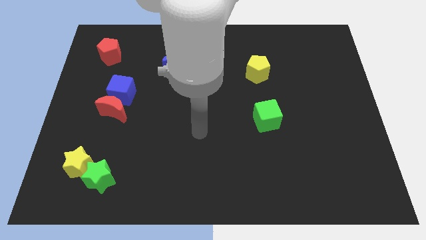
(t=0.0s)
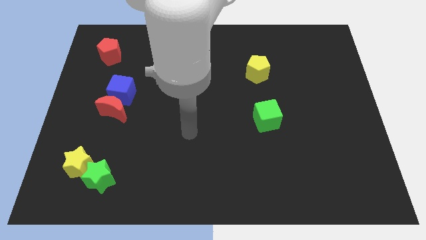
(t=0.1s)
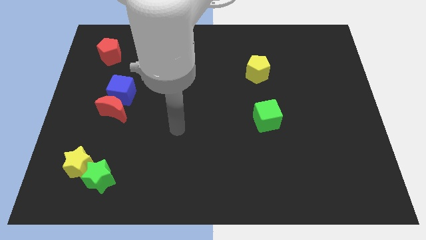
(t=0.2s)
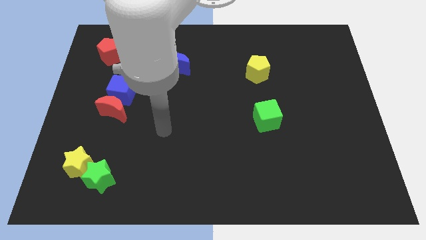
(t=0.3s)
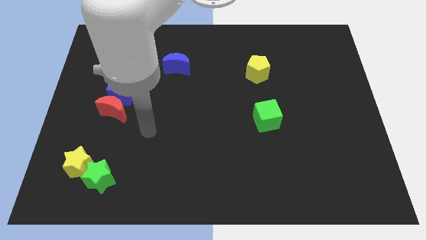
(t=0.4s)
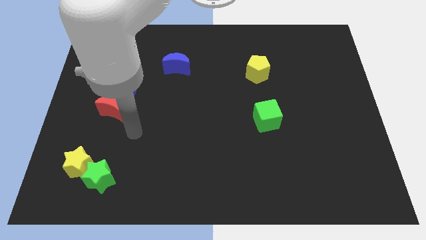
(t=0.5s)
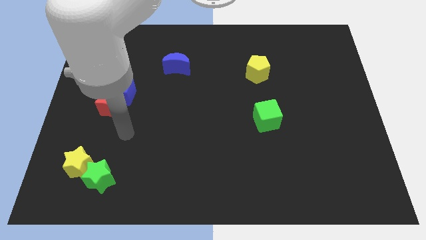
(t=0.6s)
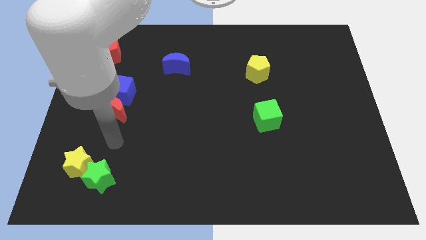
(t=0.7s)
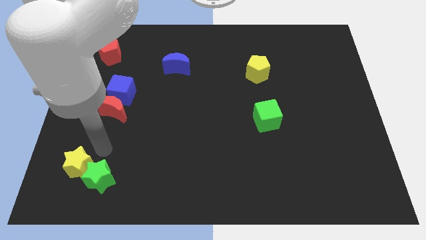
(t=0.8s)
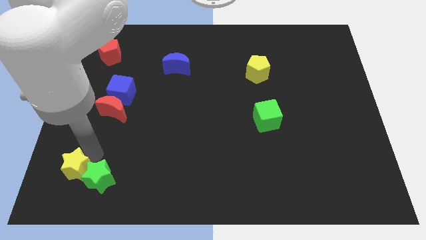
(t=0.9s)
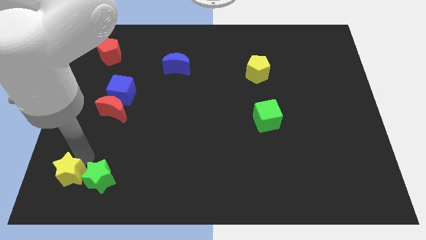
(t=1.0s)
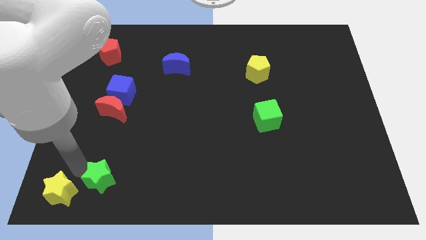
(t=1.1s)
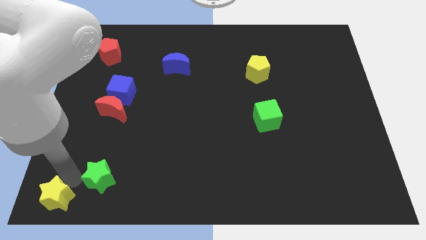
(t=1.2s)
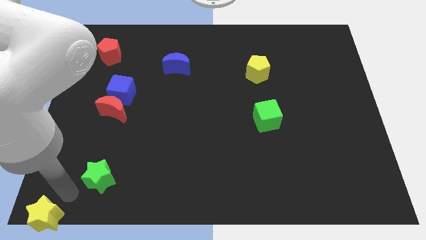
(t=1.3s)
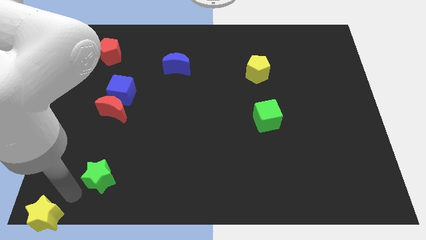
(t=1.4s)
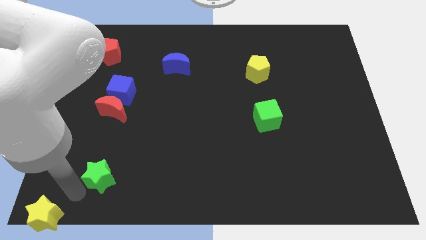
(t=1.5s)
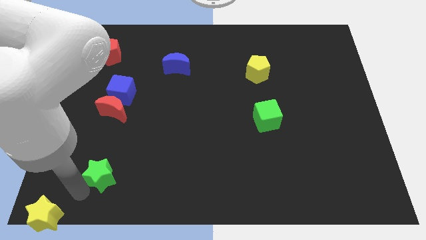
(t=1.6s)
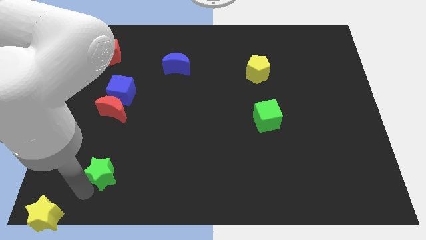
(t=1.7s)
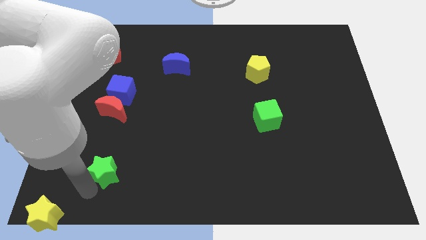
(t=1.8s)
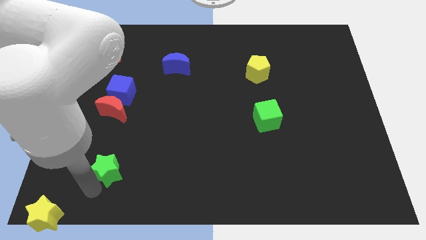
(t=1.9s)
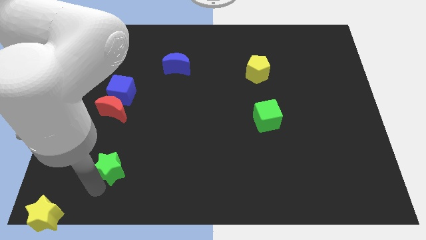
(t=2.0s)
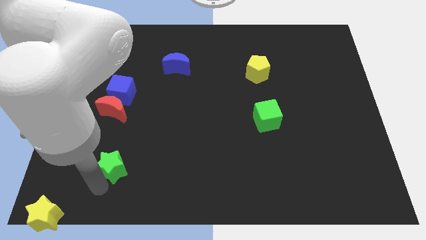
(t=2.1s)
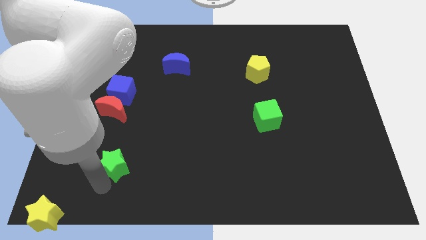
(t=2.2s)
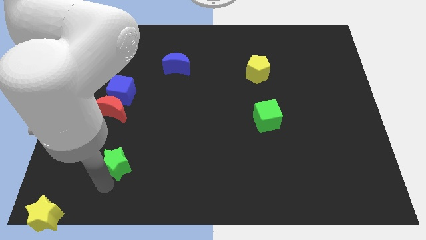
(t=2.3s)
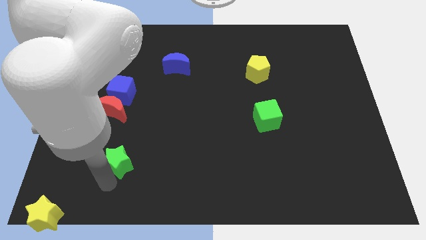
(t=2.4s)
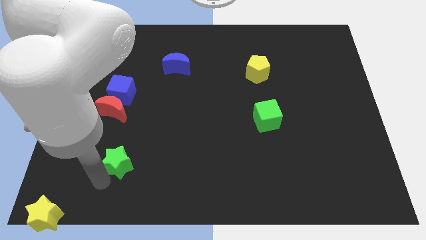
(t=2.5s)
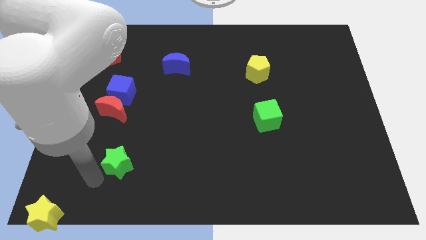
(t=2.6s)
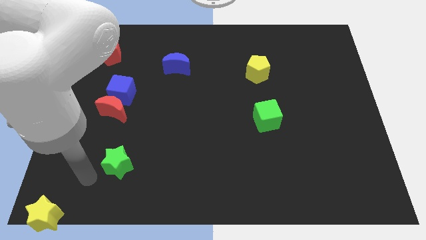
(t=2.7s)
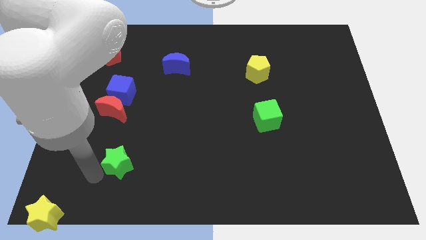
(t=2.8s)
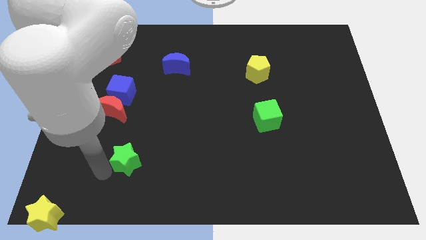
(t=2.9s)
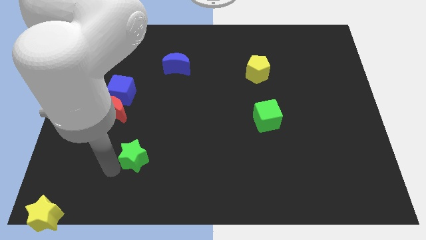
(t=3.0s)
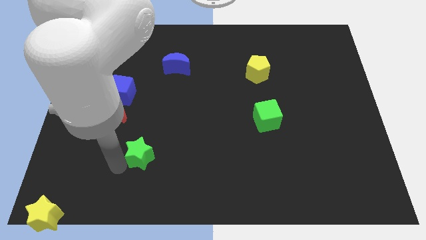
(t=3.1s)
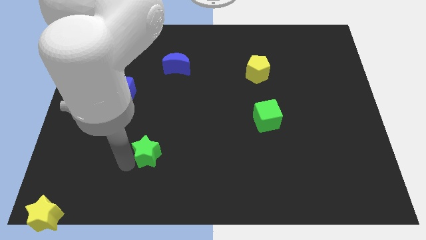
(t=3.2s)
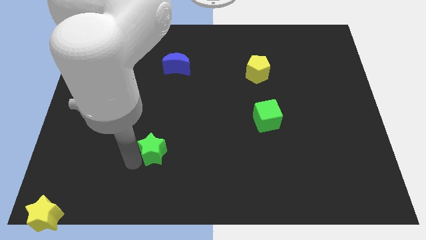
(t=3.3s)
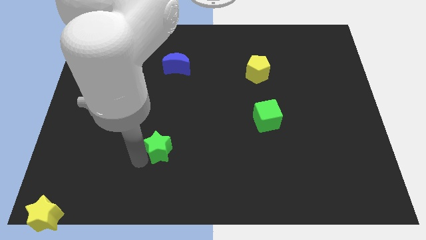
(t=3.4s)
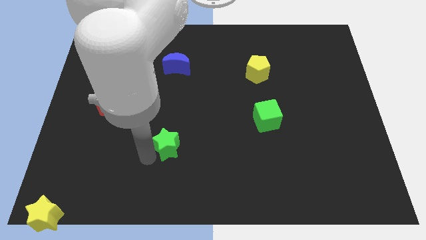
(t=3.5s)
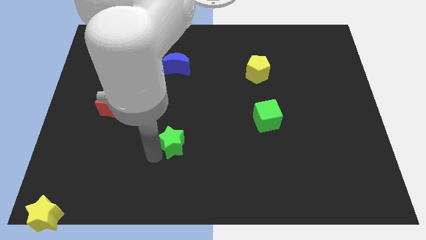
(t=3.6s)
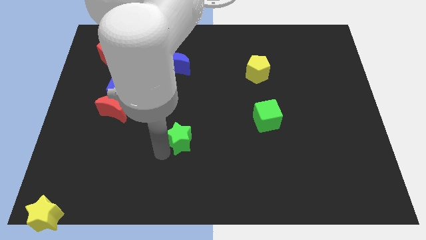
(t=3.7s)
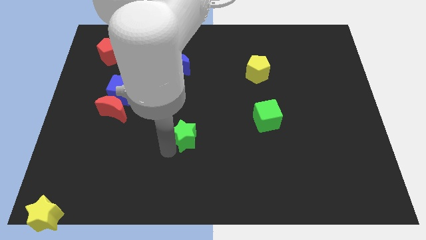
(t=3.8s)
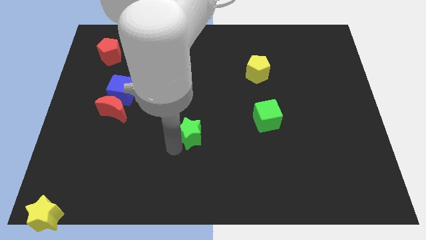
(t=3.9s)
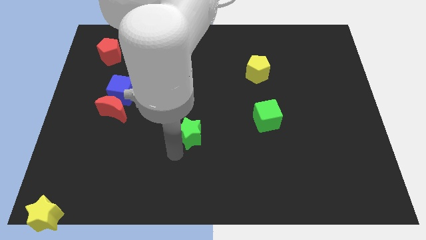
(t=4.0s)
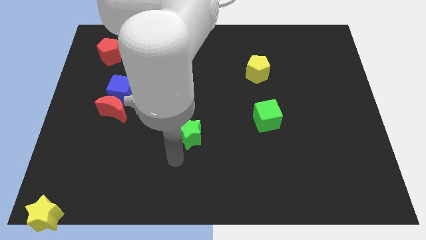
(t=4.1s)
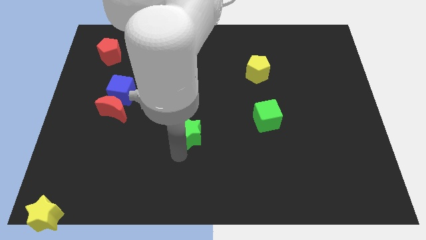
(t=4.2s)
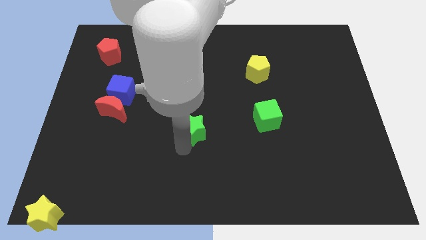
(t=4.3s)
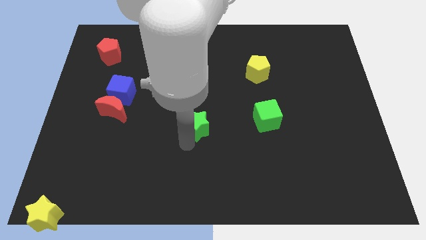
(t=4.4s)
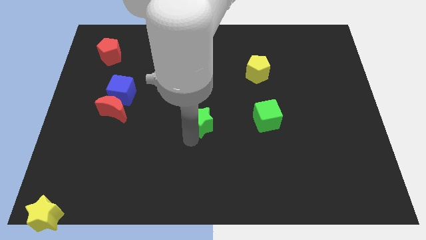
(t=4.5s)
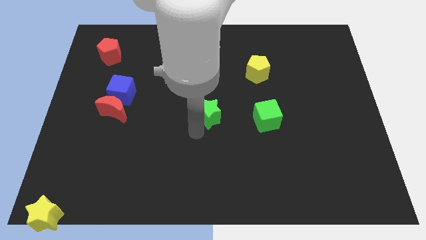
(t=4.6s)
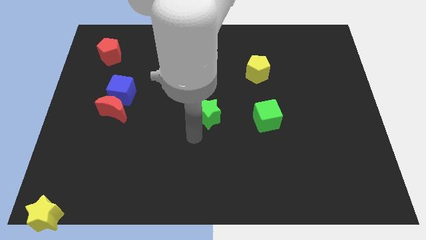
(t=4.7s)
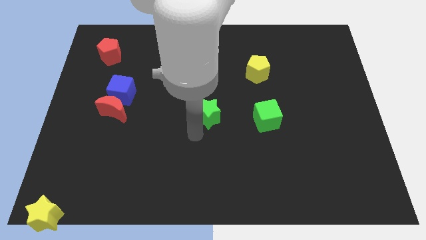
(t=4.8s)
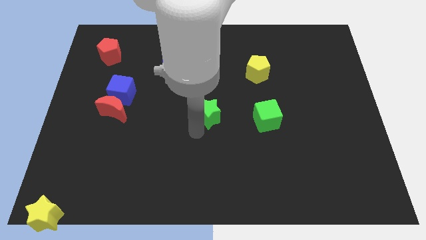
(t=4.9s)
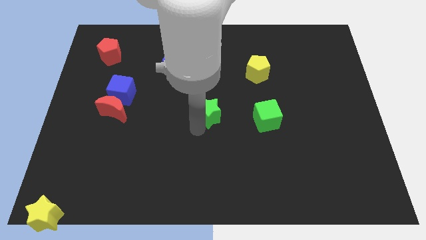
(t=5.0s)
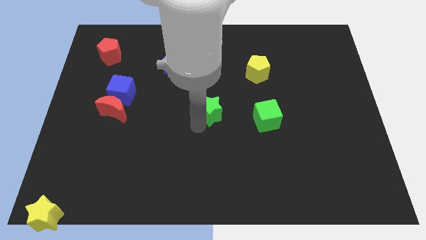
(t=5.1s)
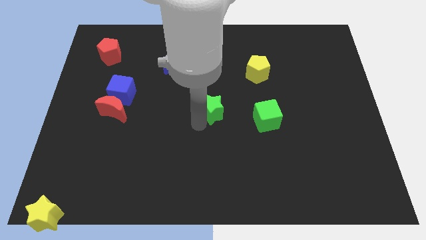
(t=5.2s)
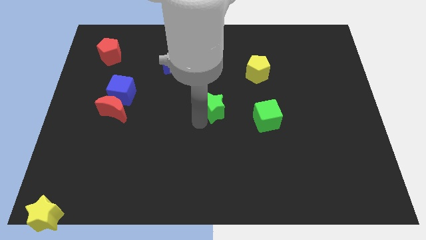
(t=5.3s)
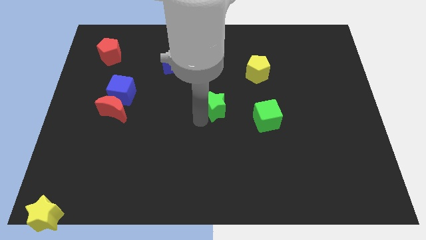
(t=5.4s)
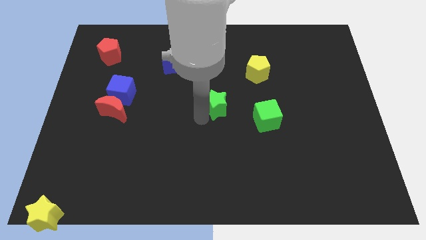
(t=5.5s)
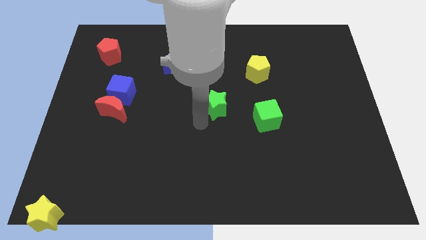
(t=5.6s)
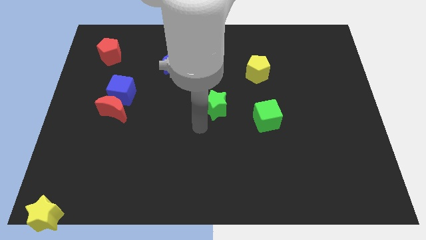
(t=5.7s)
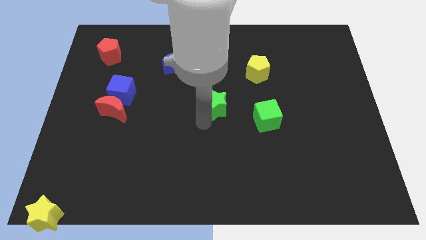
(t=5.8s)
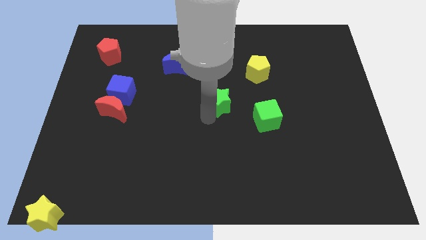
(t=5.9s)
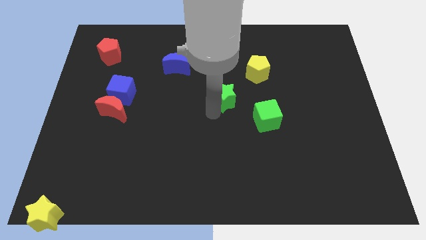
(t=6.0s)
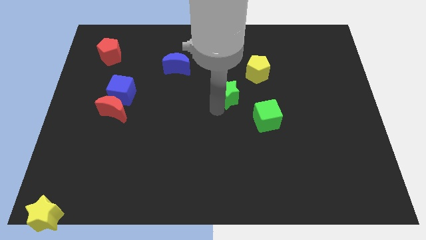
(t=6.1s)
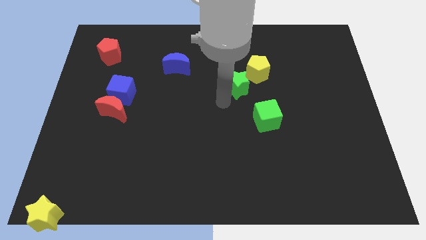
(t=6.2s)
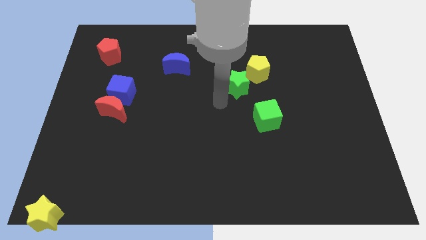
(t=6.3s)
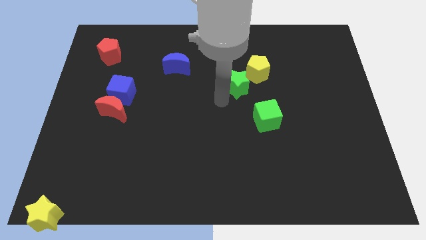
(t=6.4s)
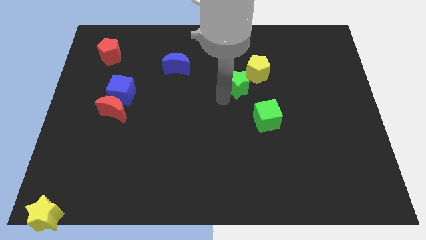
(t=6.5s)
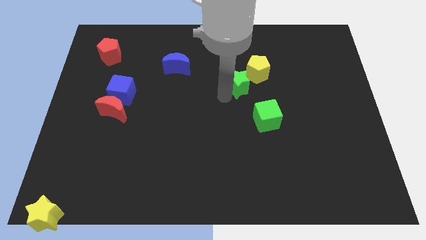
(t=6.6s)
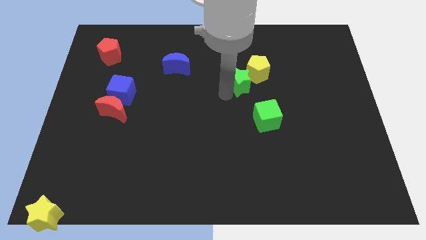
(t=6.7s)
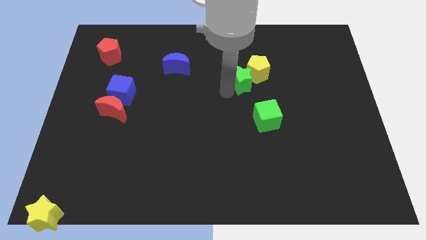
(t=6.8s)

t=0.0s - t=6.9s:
slide the green star towards the yellow pentagon

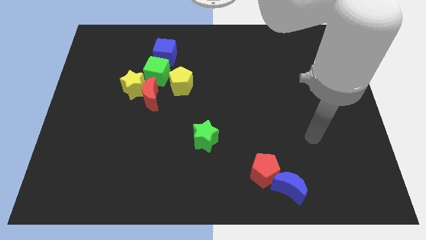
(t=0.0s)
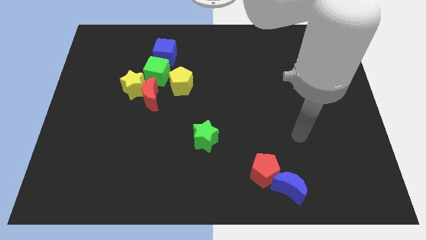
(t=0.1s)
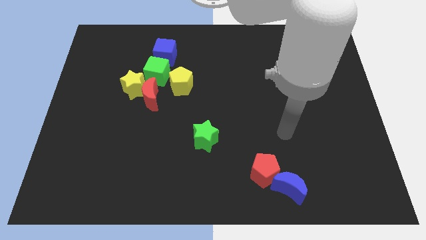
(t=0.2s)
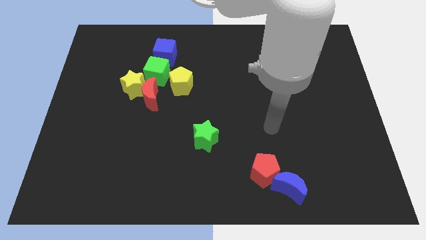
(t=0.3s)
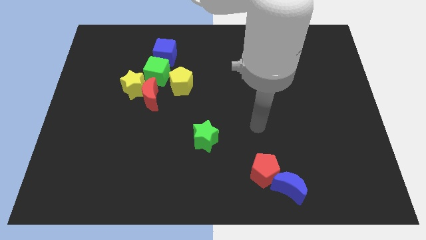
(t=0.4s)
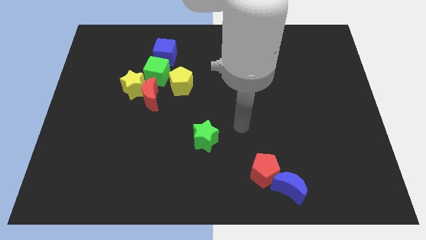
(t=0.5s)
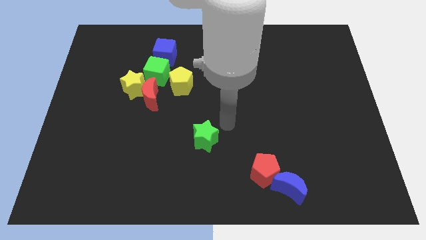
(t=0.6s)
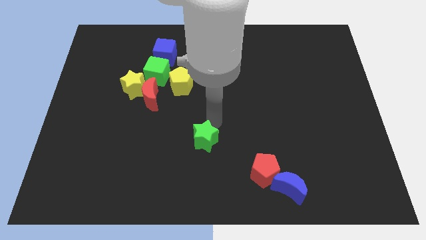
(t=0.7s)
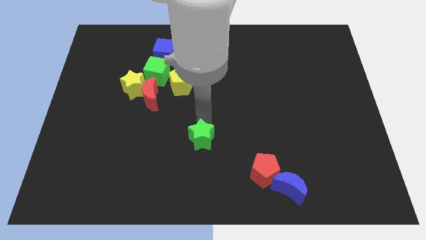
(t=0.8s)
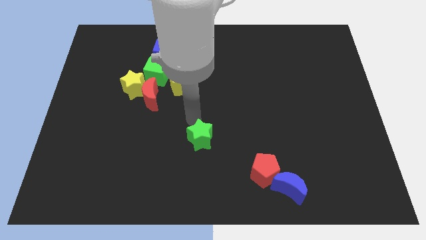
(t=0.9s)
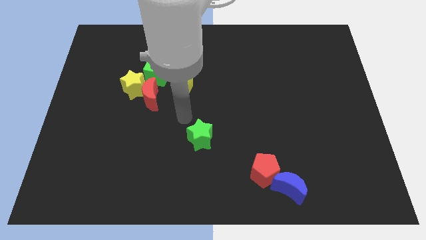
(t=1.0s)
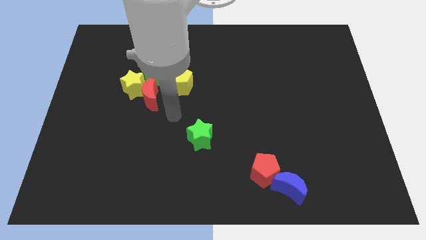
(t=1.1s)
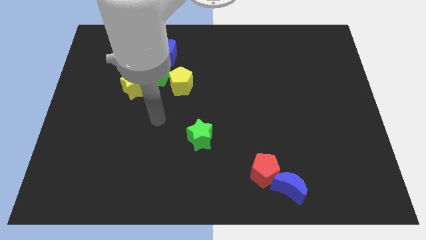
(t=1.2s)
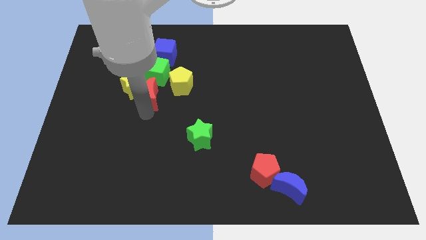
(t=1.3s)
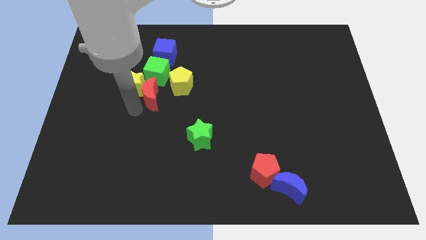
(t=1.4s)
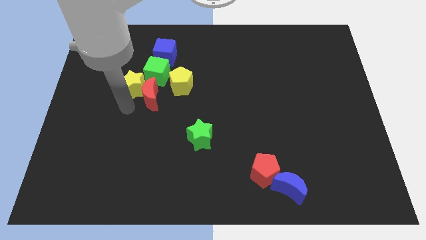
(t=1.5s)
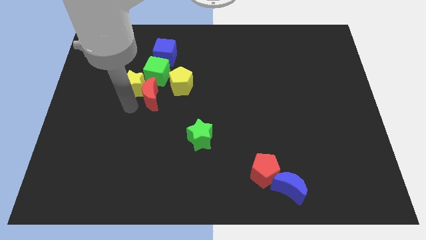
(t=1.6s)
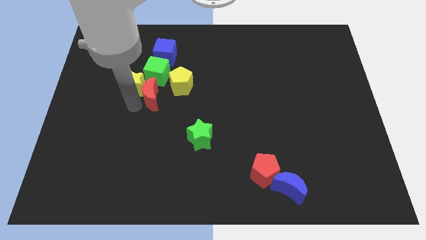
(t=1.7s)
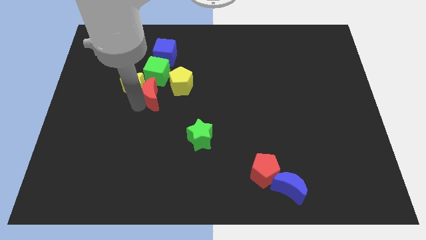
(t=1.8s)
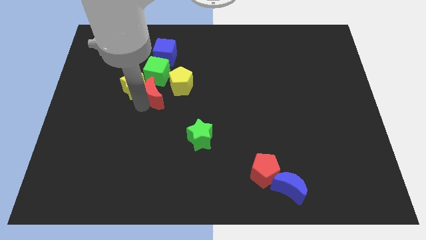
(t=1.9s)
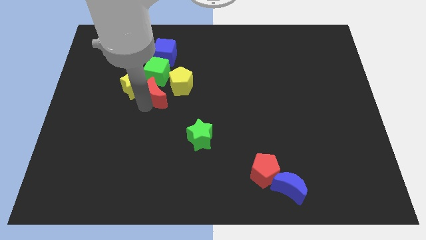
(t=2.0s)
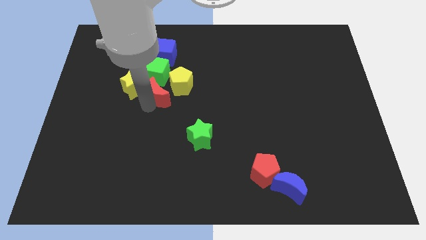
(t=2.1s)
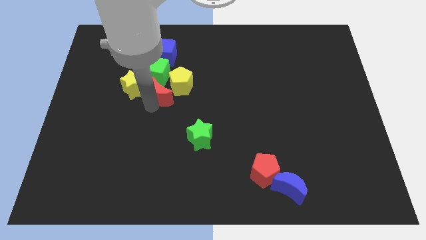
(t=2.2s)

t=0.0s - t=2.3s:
put the red moon close to the yellow pentagon
